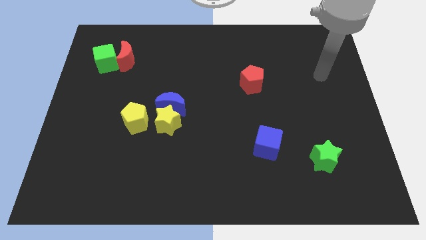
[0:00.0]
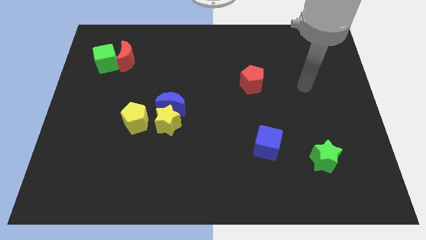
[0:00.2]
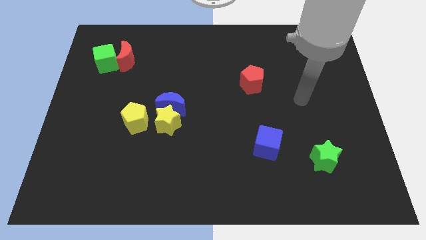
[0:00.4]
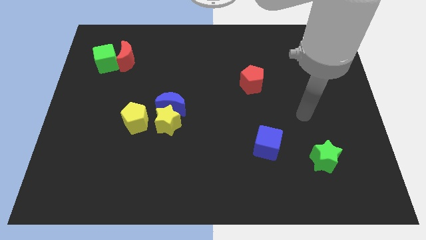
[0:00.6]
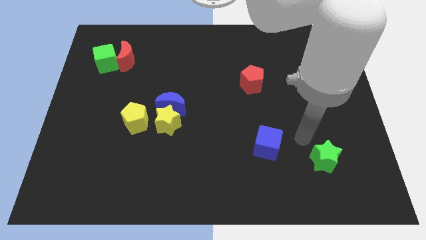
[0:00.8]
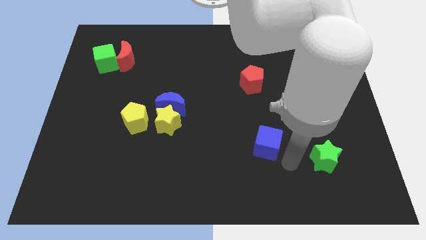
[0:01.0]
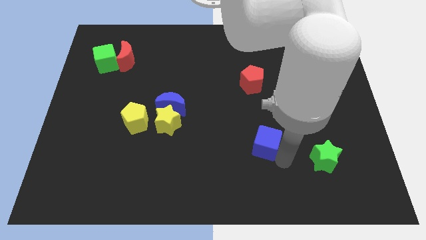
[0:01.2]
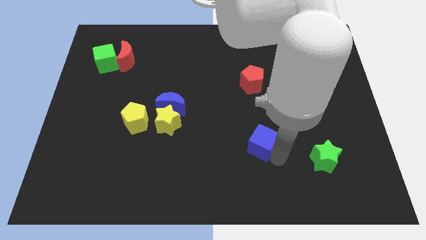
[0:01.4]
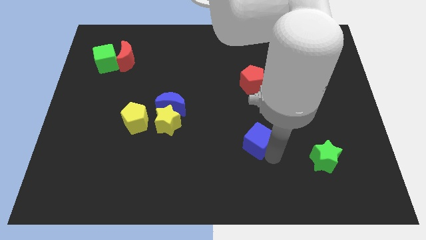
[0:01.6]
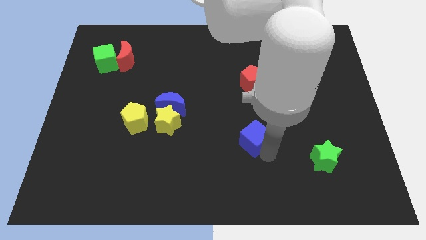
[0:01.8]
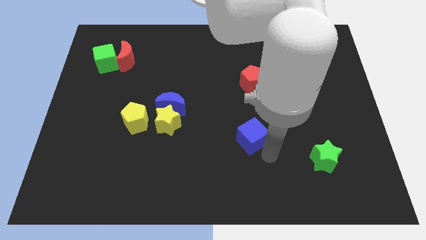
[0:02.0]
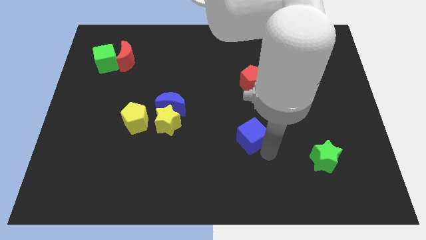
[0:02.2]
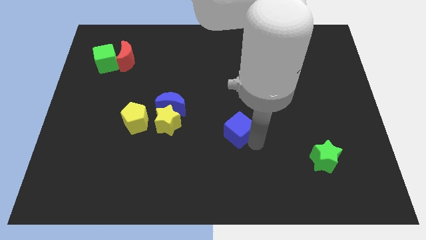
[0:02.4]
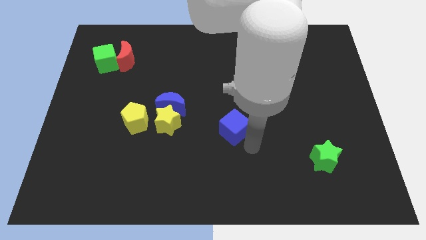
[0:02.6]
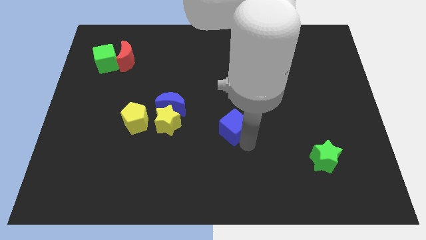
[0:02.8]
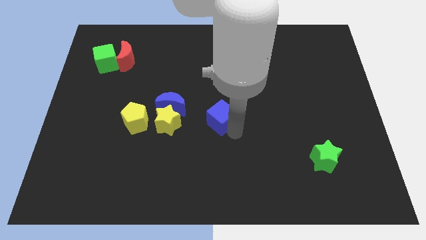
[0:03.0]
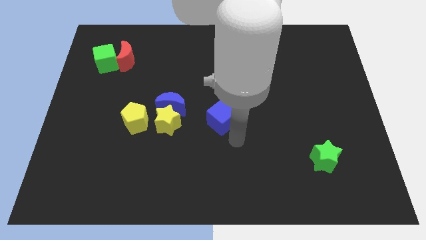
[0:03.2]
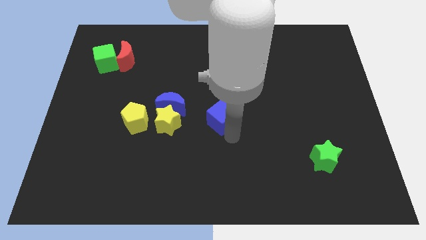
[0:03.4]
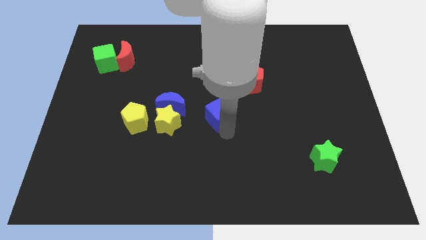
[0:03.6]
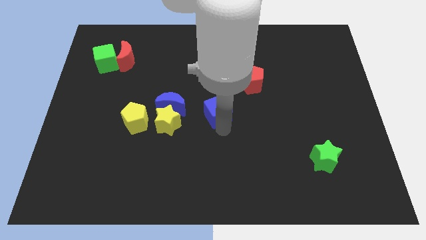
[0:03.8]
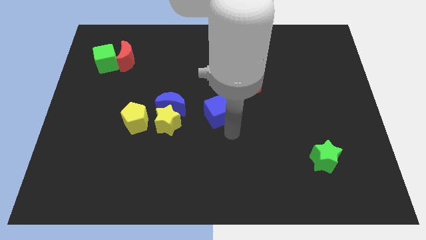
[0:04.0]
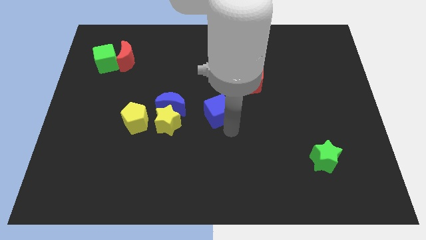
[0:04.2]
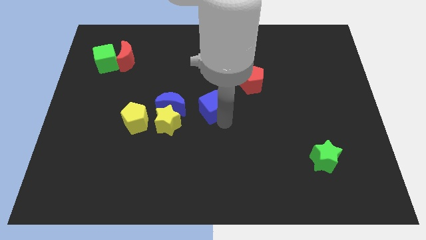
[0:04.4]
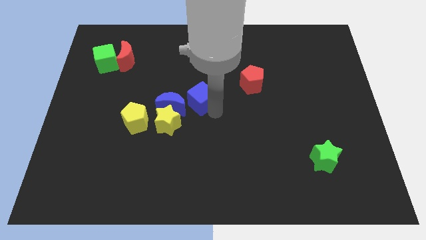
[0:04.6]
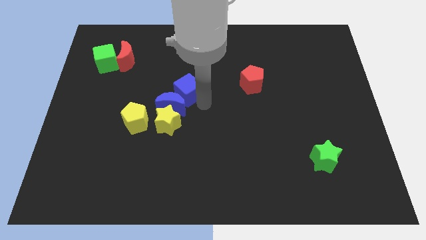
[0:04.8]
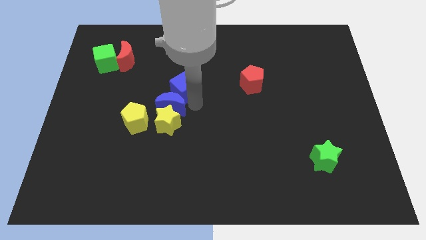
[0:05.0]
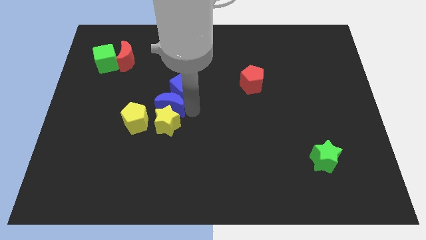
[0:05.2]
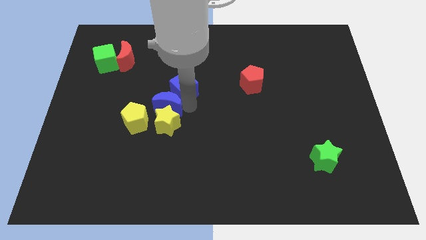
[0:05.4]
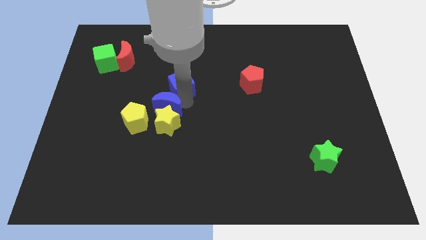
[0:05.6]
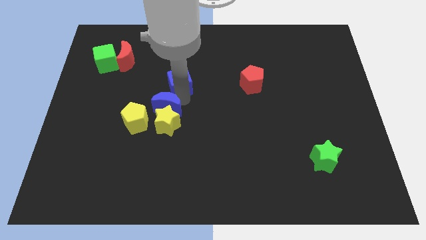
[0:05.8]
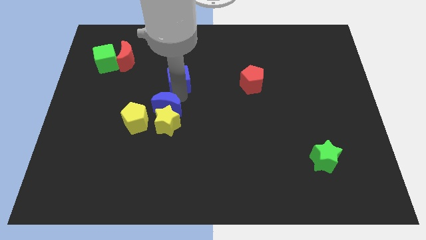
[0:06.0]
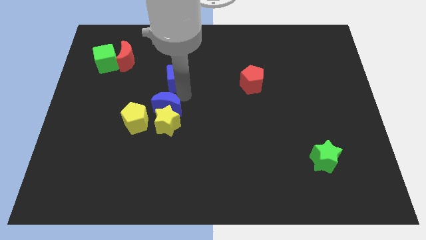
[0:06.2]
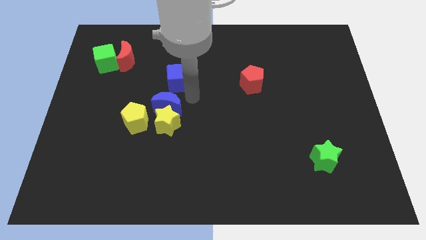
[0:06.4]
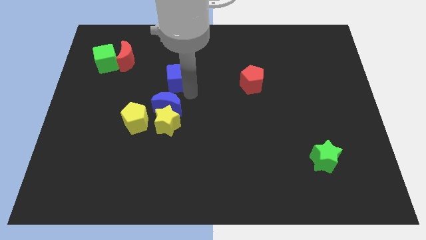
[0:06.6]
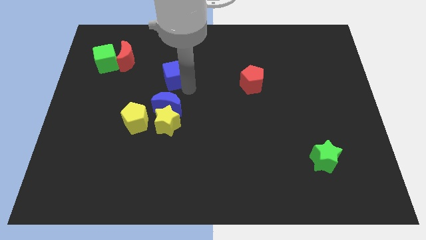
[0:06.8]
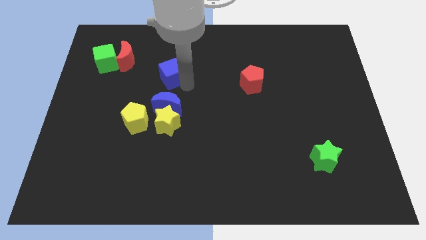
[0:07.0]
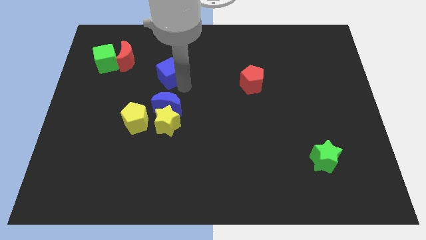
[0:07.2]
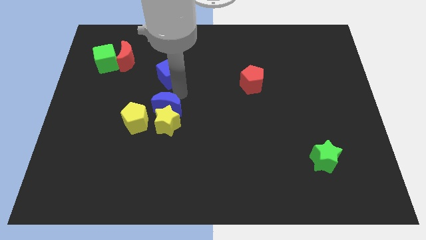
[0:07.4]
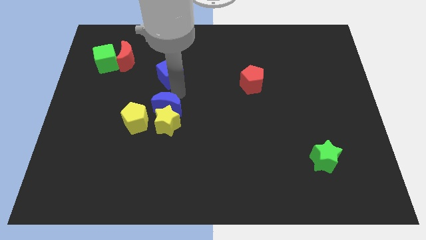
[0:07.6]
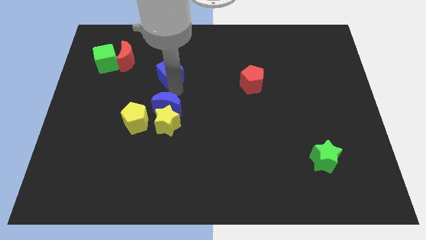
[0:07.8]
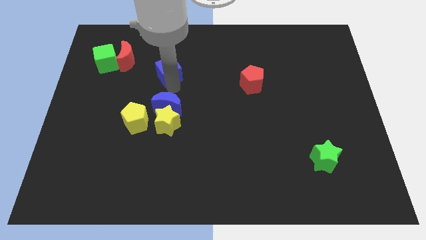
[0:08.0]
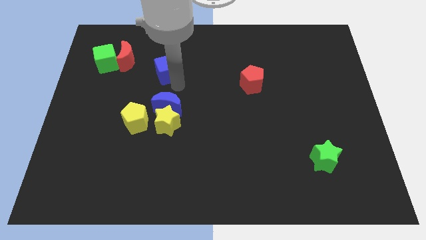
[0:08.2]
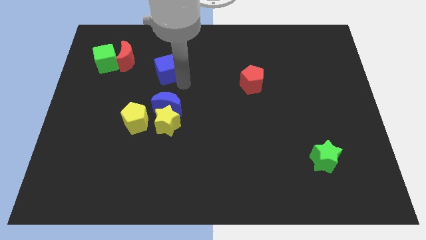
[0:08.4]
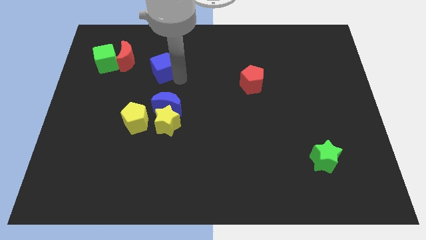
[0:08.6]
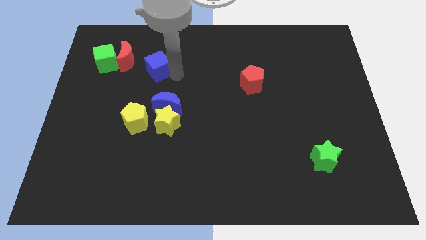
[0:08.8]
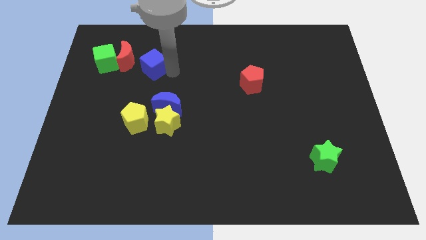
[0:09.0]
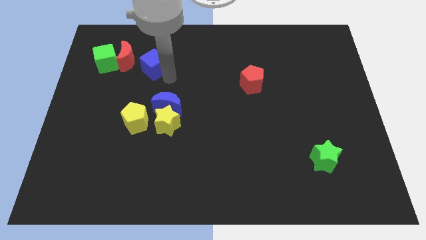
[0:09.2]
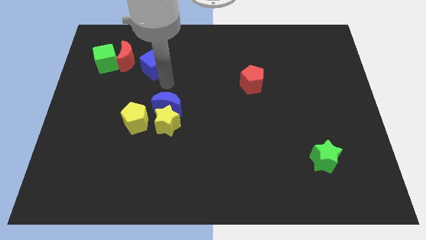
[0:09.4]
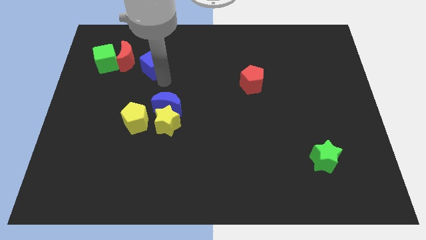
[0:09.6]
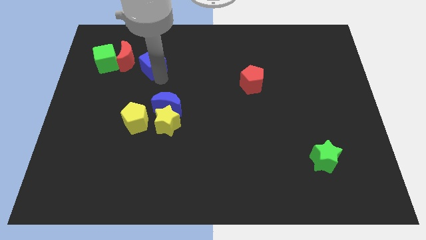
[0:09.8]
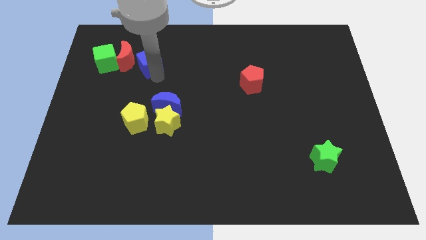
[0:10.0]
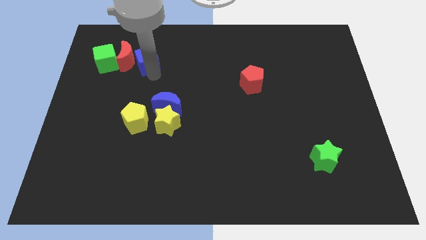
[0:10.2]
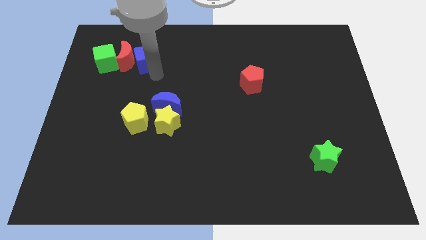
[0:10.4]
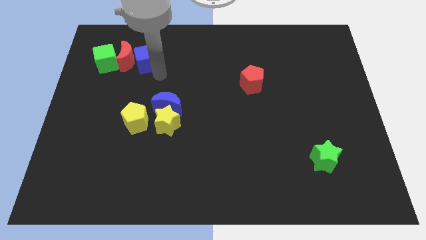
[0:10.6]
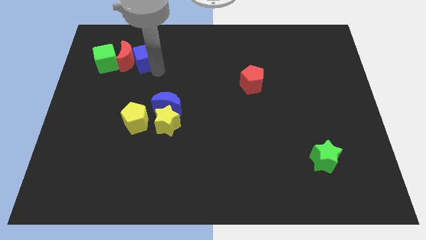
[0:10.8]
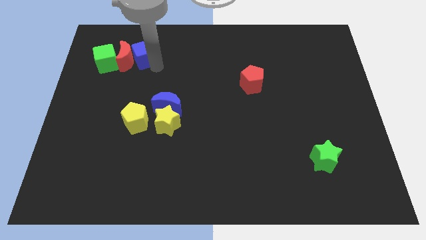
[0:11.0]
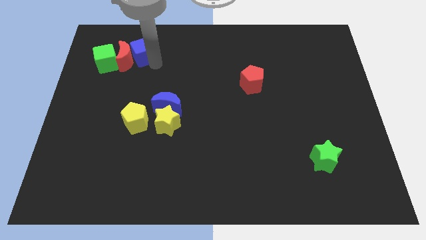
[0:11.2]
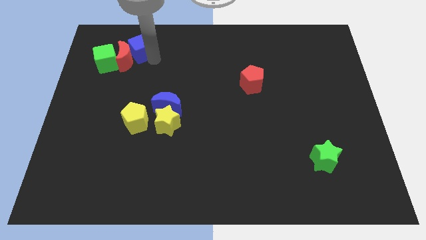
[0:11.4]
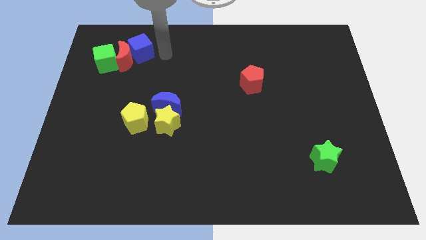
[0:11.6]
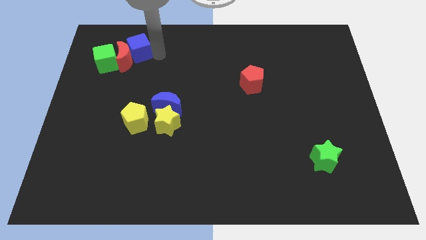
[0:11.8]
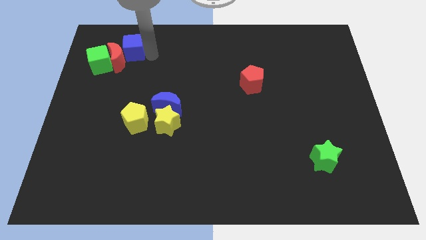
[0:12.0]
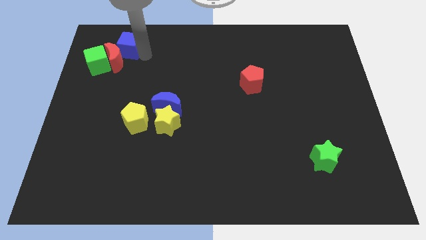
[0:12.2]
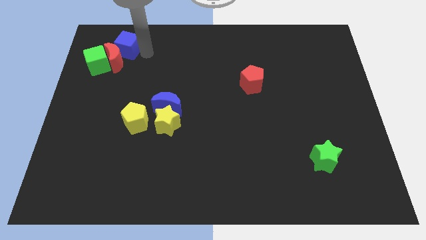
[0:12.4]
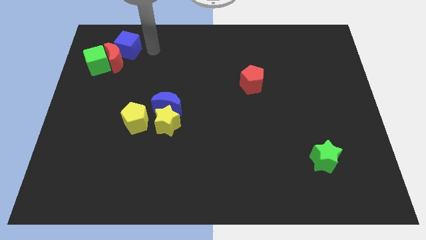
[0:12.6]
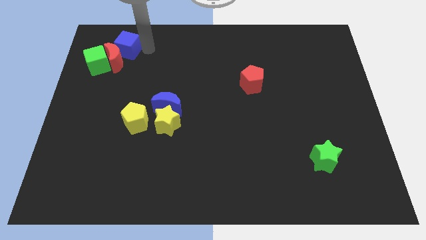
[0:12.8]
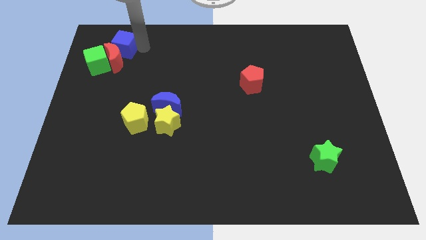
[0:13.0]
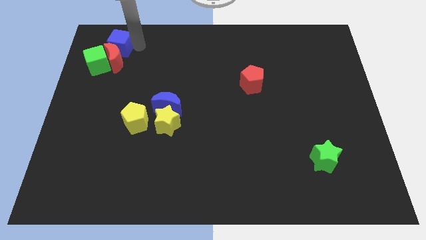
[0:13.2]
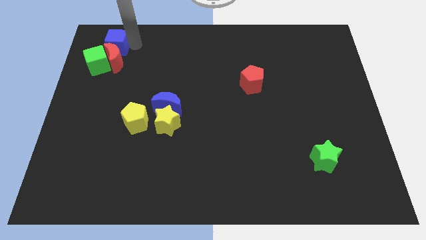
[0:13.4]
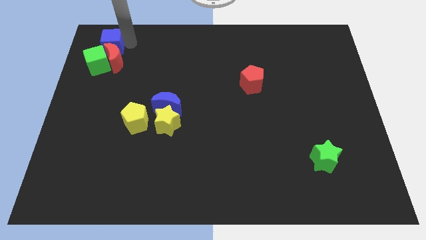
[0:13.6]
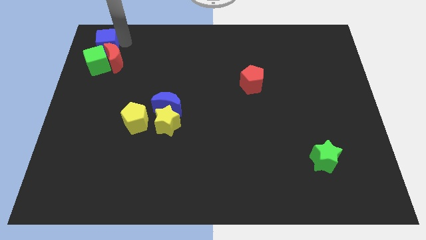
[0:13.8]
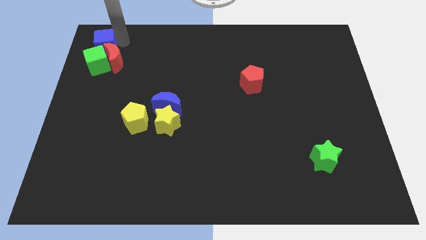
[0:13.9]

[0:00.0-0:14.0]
push the blue cube to the upper left corner
